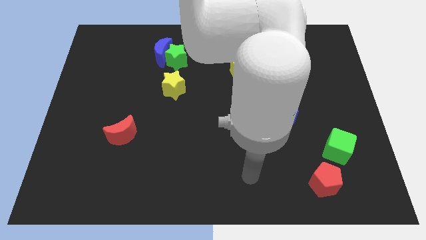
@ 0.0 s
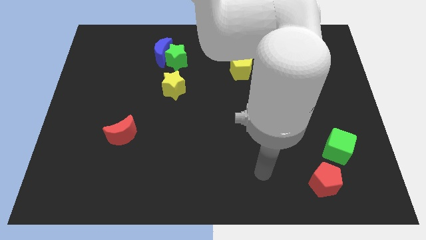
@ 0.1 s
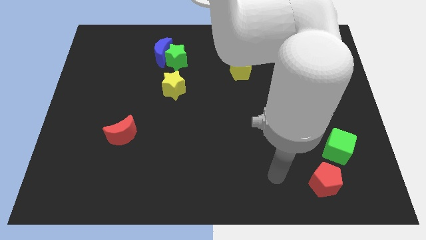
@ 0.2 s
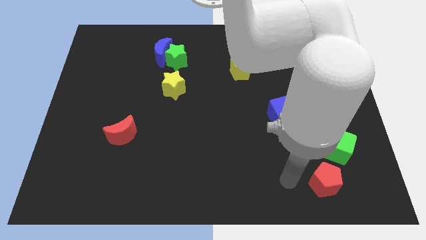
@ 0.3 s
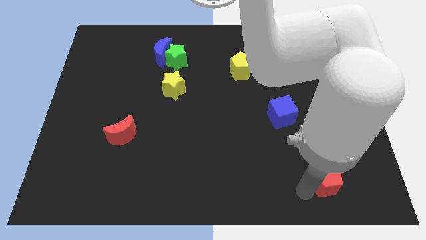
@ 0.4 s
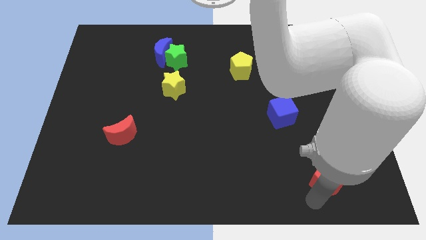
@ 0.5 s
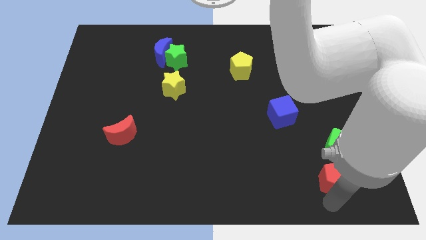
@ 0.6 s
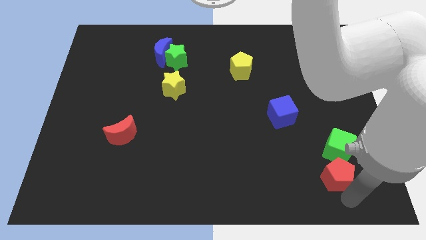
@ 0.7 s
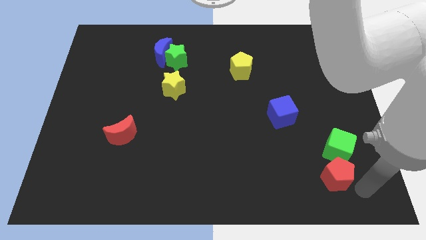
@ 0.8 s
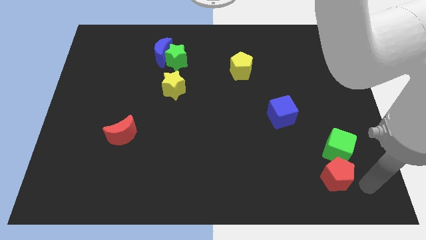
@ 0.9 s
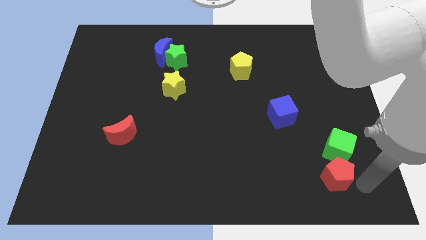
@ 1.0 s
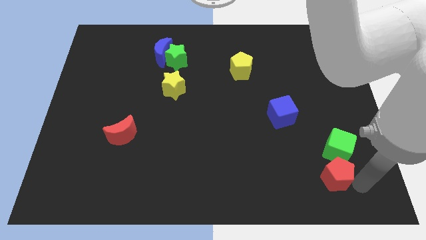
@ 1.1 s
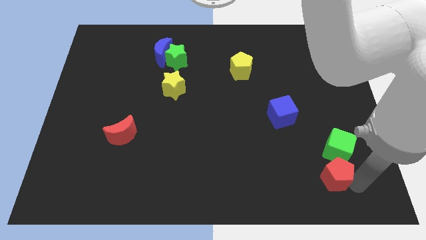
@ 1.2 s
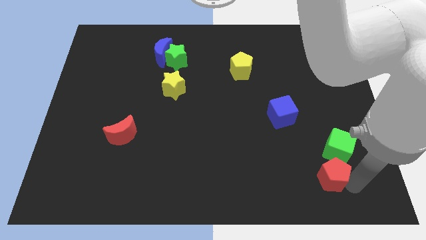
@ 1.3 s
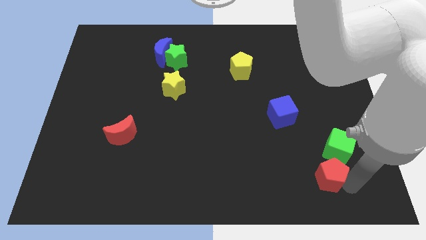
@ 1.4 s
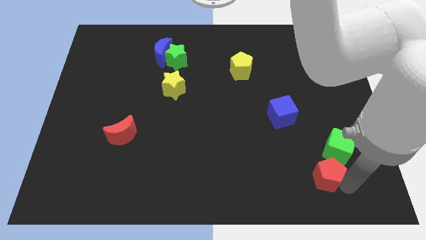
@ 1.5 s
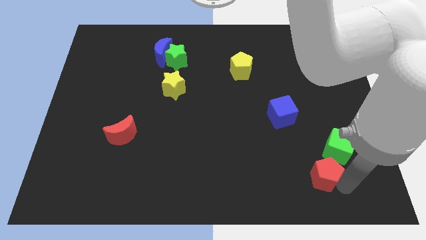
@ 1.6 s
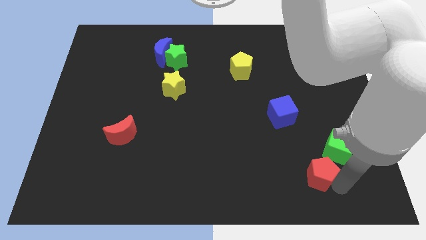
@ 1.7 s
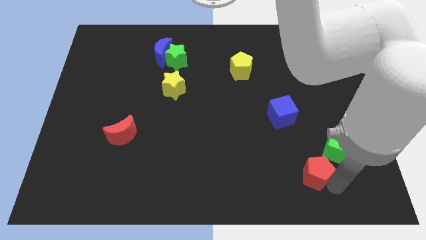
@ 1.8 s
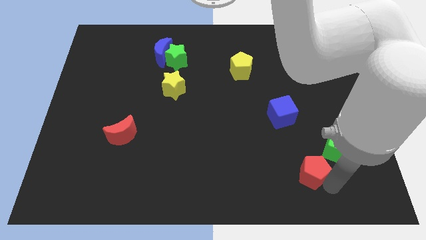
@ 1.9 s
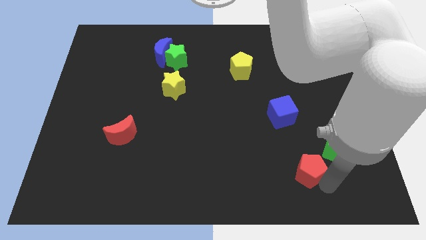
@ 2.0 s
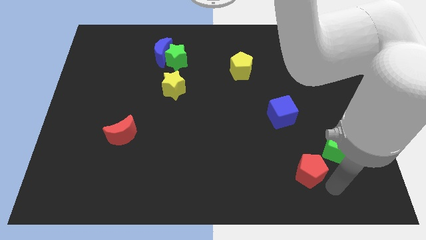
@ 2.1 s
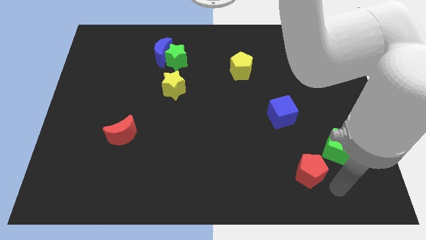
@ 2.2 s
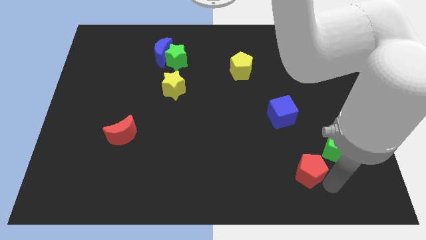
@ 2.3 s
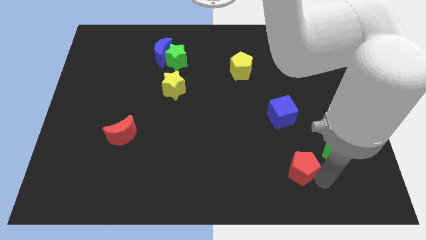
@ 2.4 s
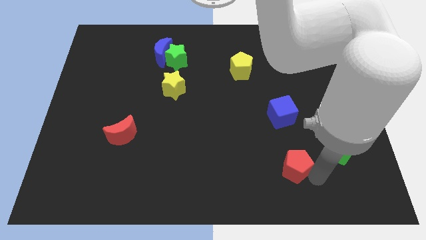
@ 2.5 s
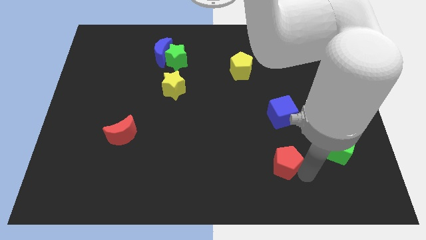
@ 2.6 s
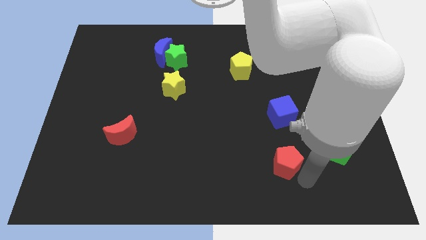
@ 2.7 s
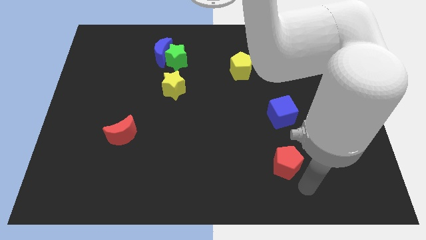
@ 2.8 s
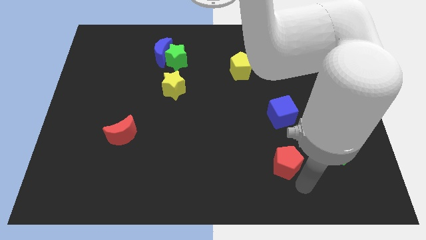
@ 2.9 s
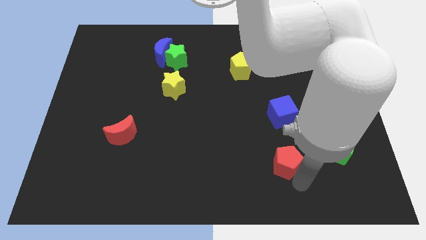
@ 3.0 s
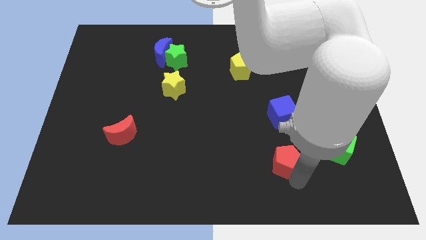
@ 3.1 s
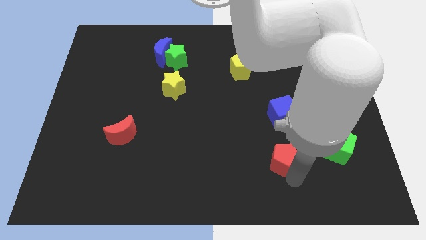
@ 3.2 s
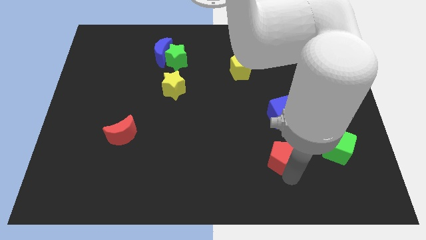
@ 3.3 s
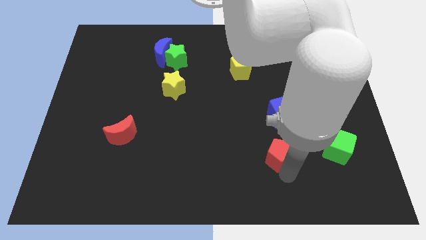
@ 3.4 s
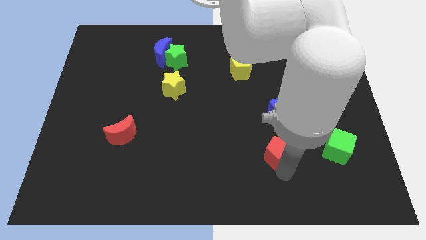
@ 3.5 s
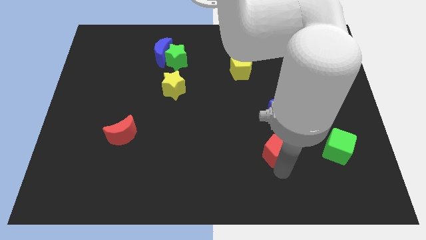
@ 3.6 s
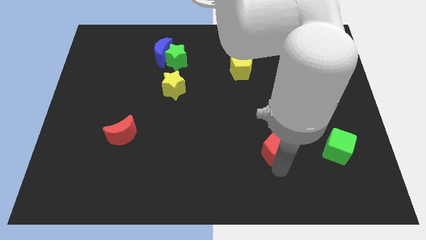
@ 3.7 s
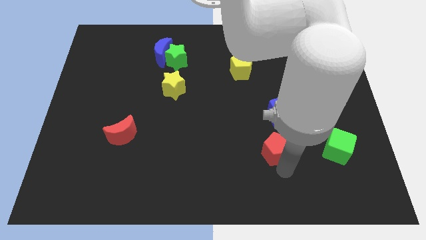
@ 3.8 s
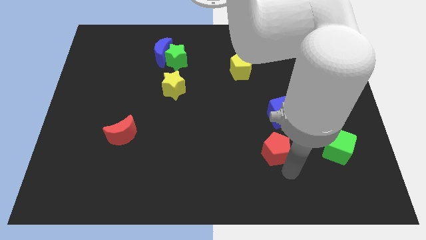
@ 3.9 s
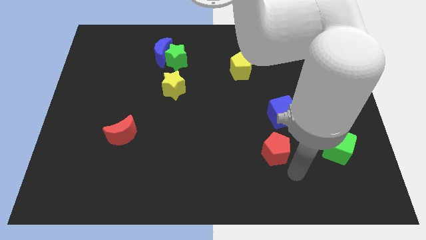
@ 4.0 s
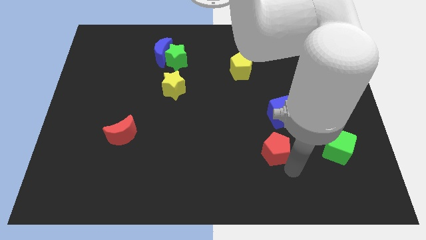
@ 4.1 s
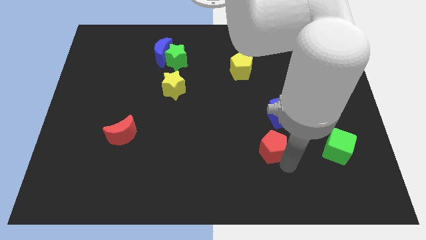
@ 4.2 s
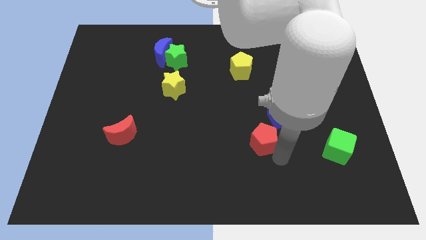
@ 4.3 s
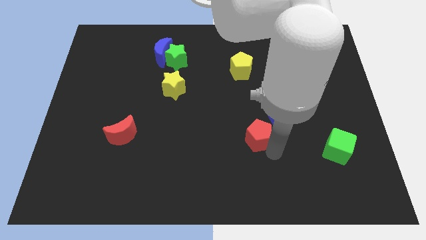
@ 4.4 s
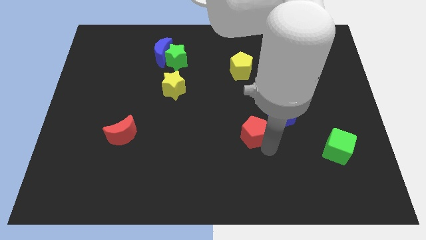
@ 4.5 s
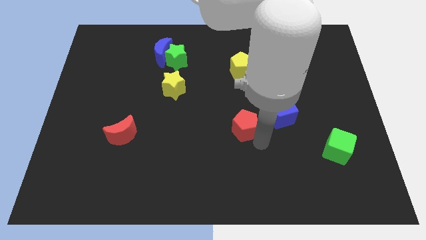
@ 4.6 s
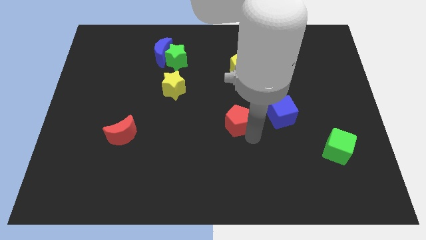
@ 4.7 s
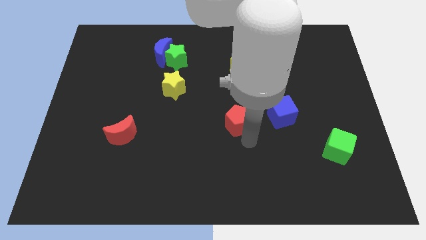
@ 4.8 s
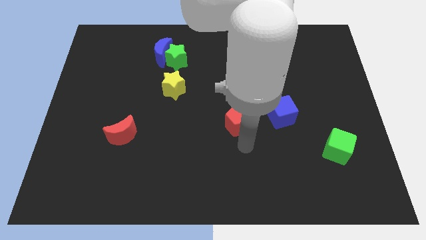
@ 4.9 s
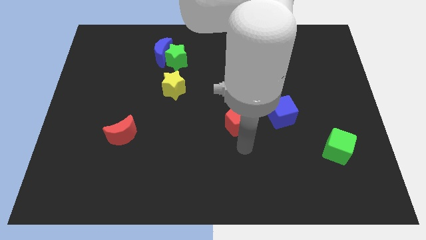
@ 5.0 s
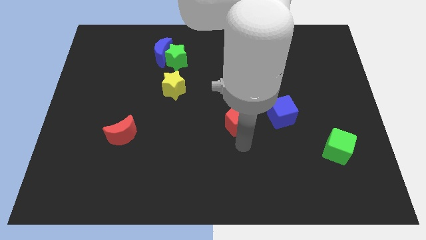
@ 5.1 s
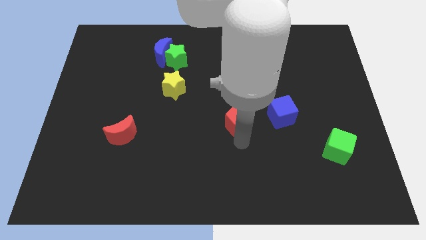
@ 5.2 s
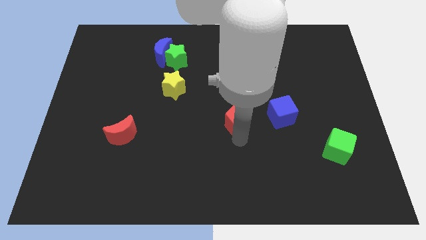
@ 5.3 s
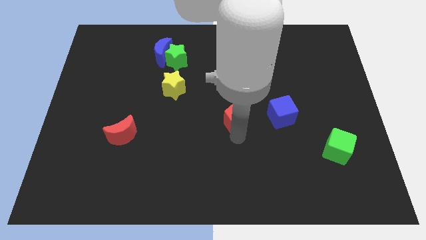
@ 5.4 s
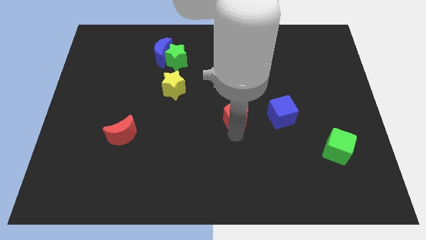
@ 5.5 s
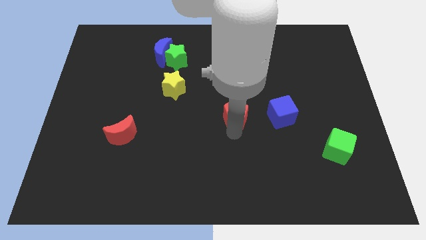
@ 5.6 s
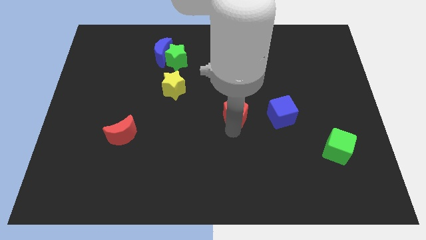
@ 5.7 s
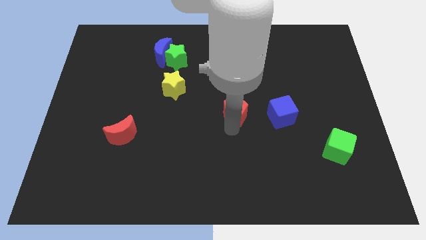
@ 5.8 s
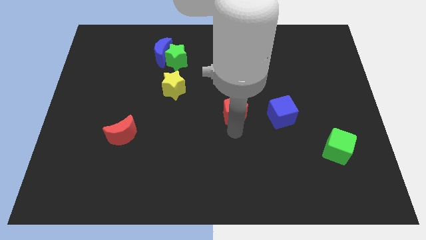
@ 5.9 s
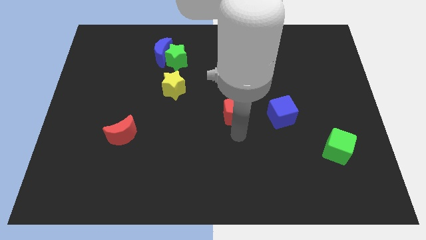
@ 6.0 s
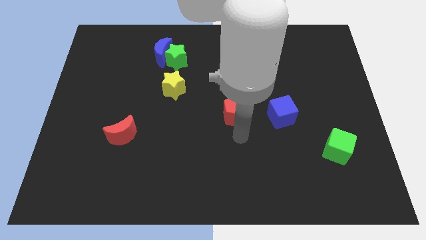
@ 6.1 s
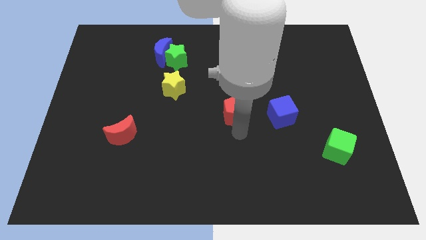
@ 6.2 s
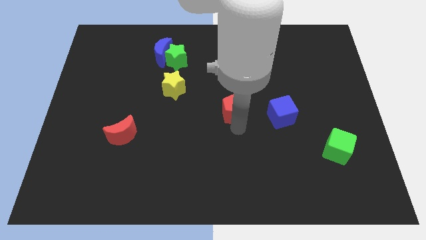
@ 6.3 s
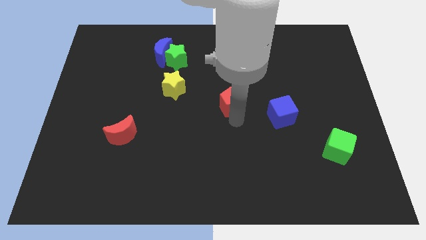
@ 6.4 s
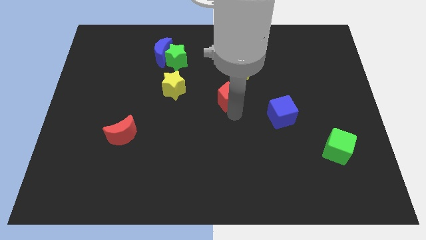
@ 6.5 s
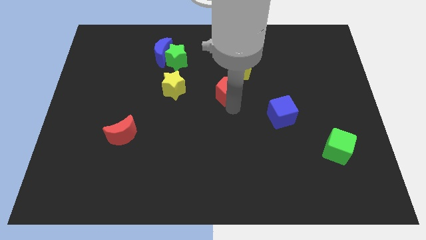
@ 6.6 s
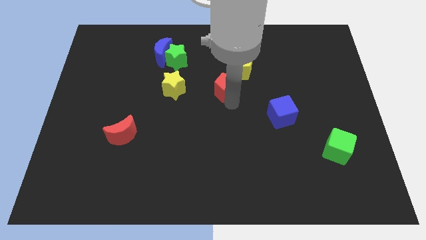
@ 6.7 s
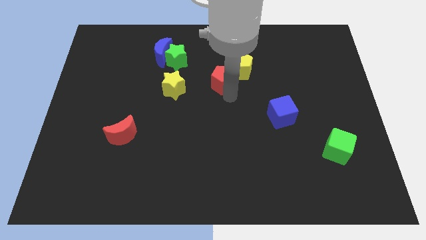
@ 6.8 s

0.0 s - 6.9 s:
move the red pentagon to the left of the yellow pentagon
